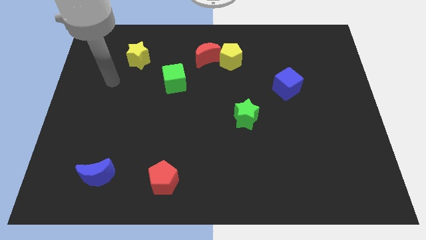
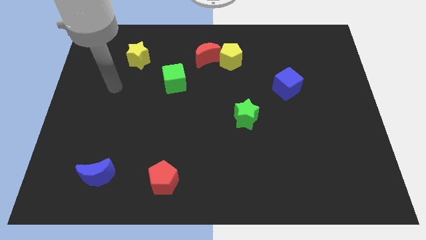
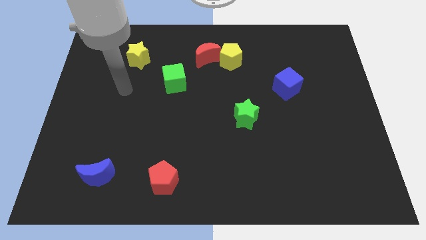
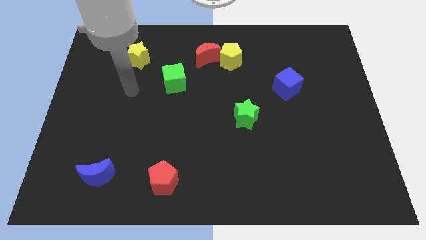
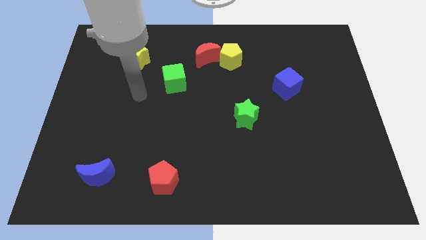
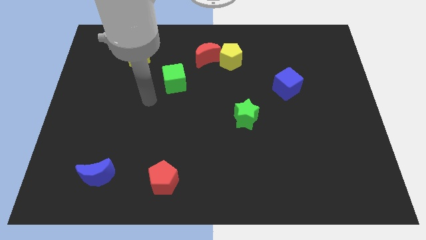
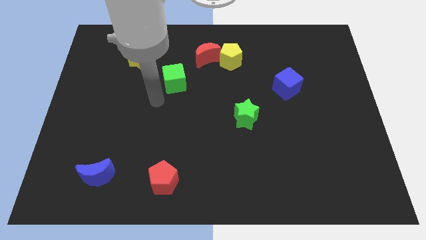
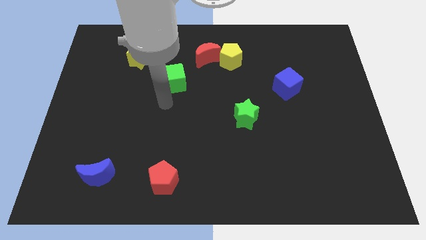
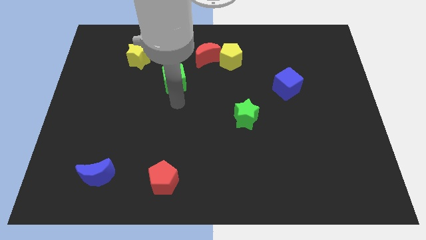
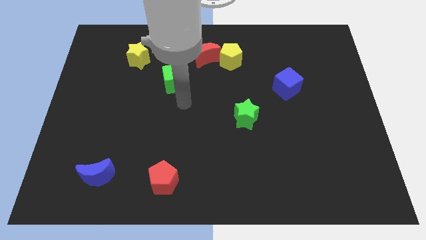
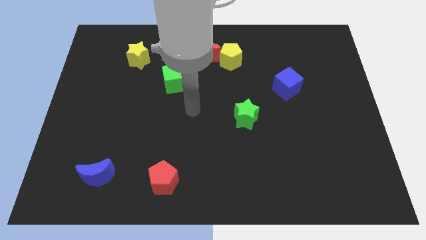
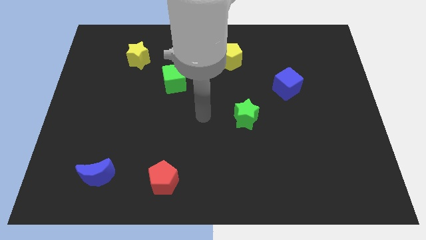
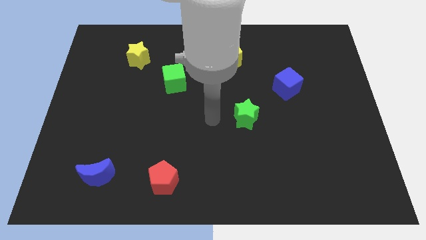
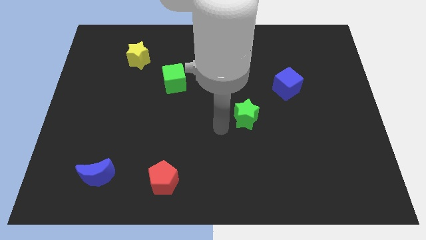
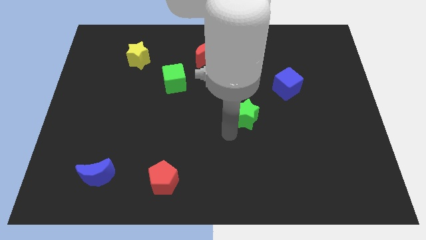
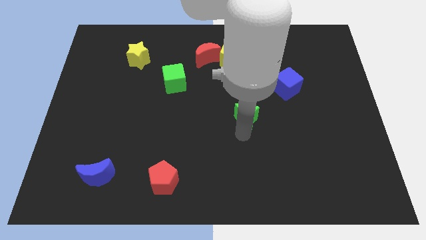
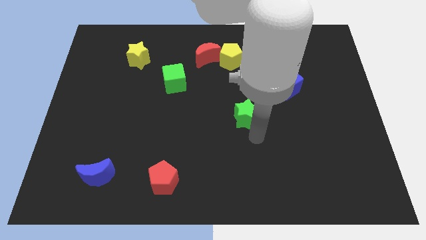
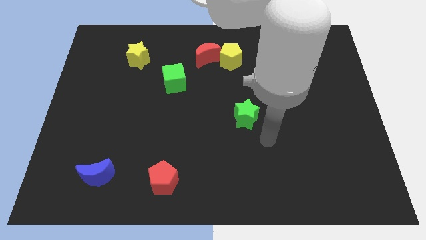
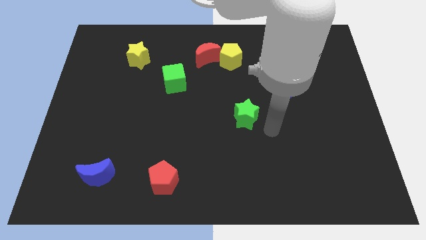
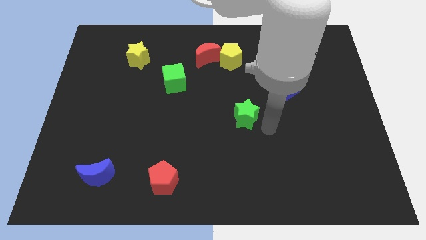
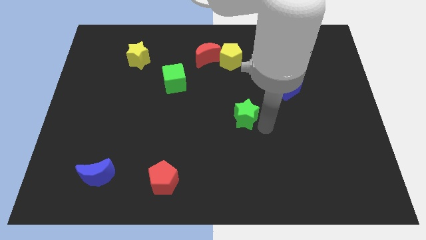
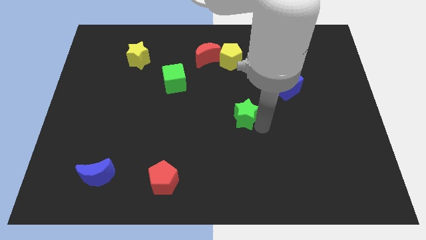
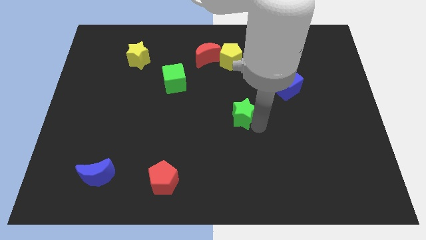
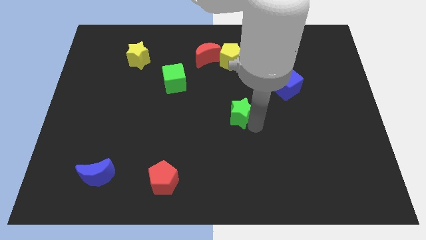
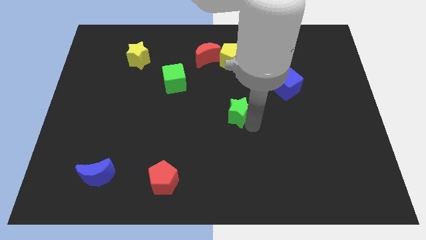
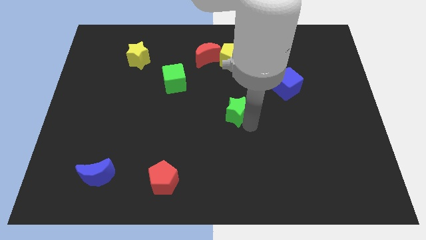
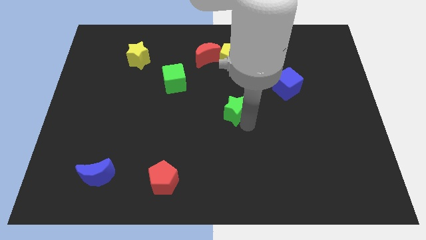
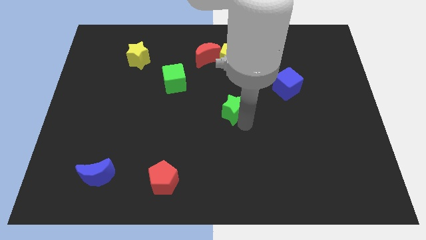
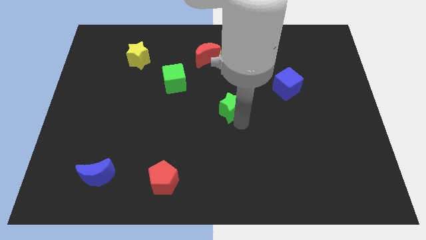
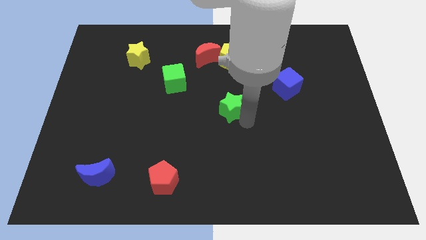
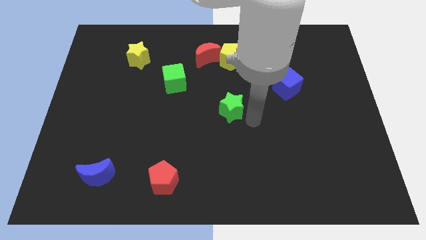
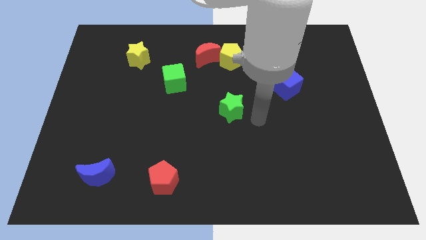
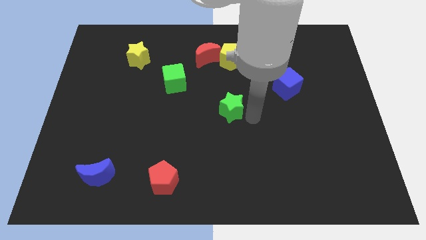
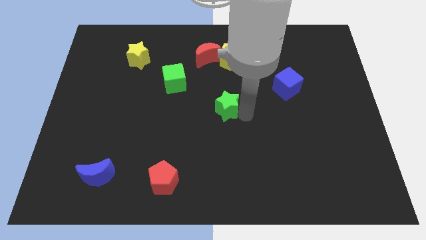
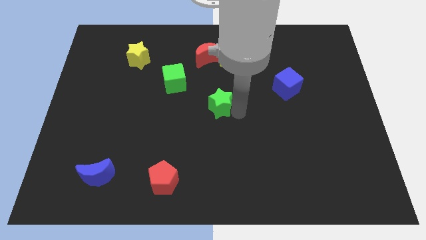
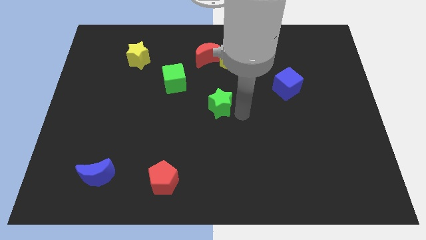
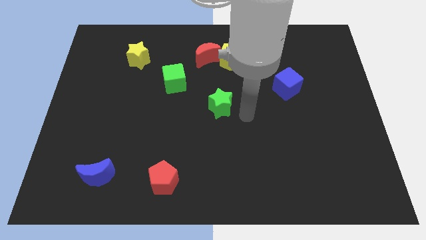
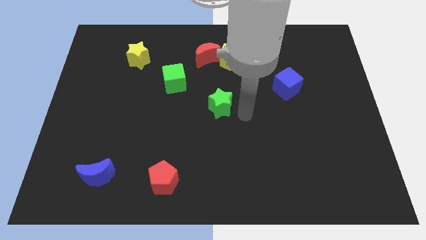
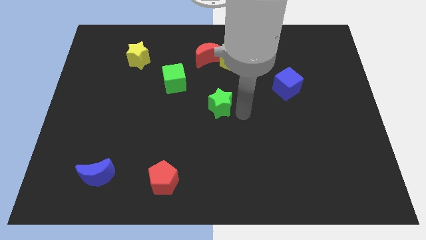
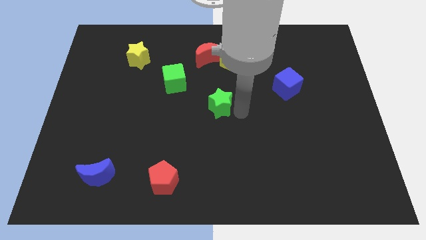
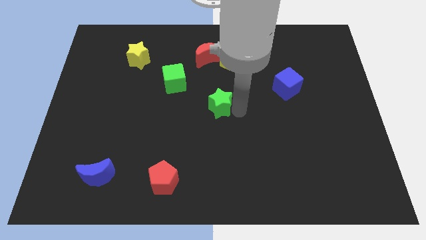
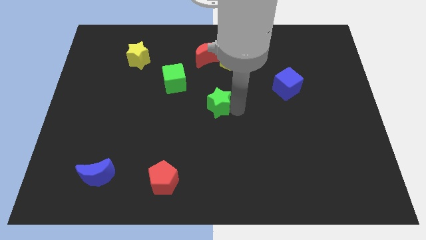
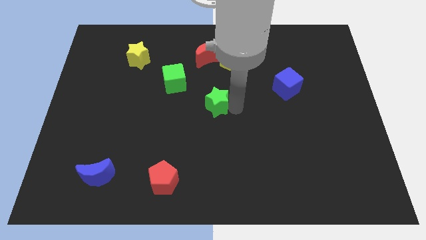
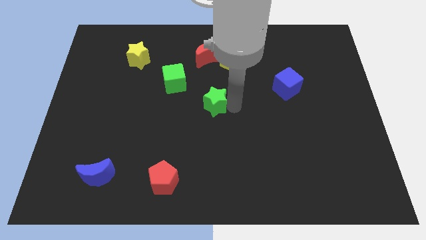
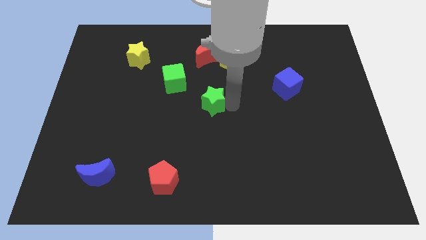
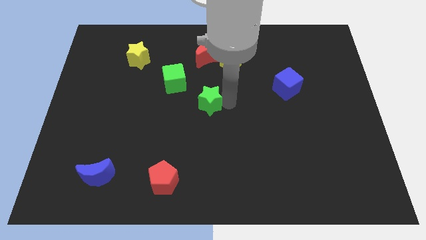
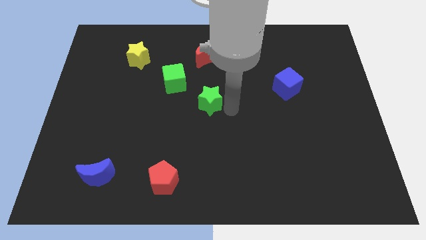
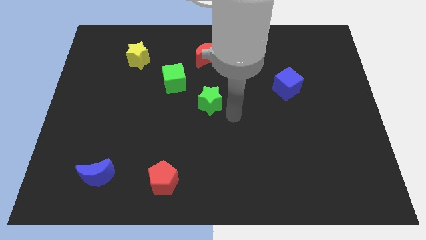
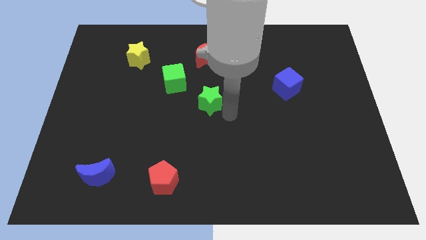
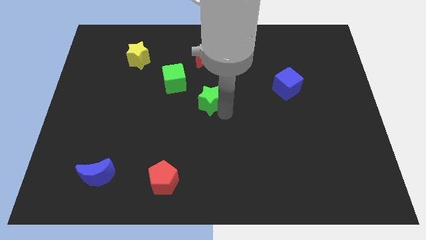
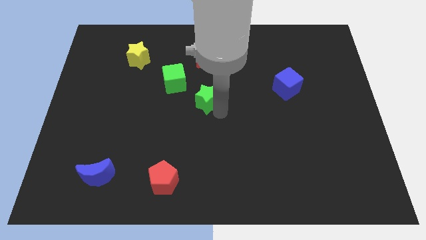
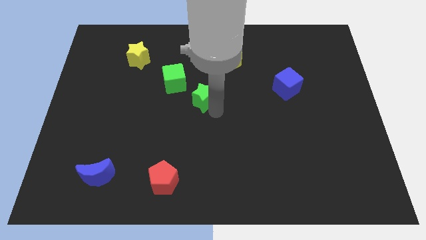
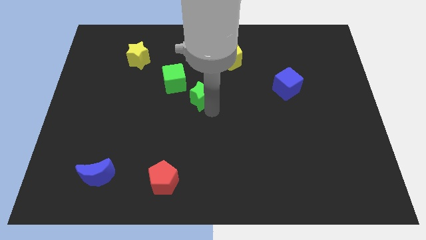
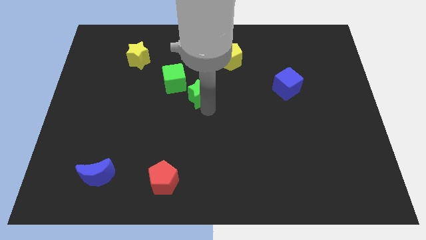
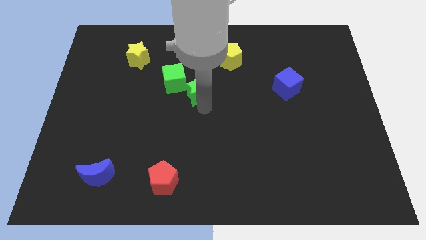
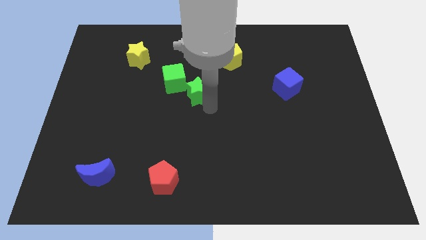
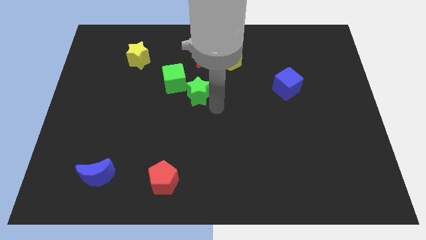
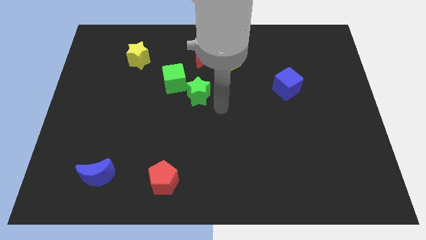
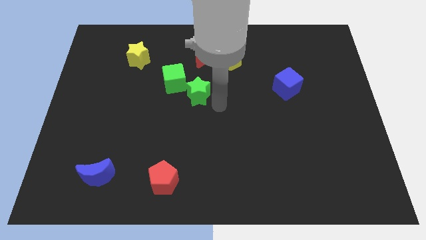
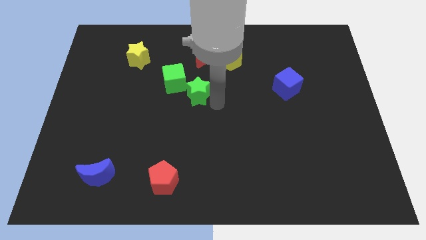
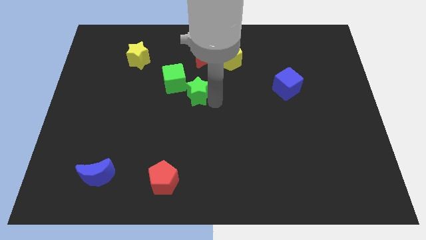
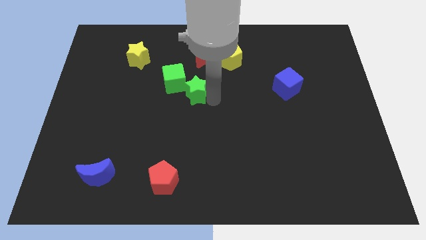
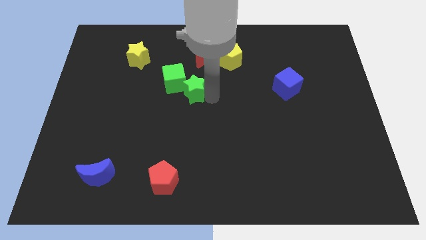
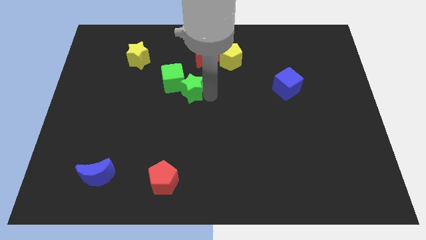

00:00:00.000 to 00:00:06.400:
move the green star close to the green cube

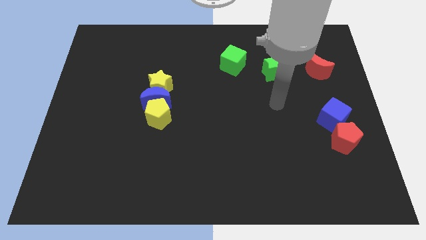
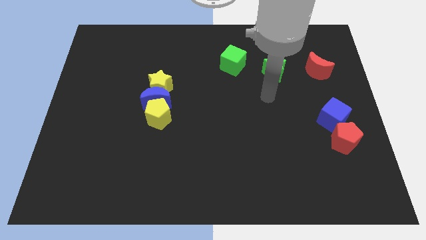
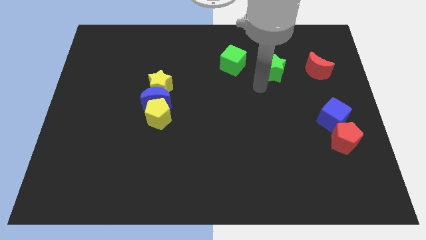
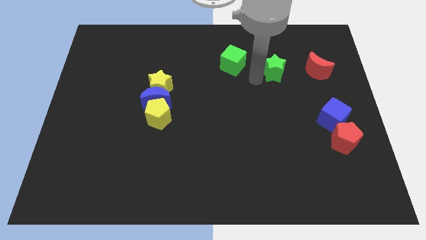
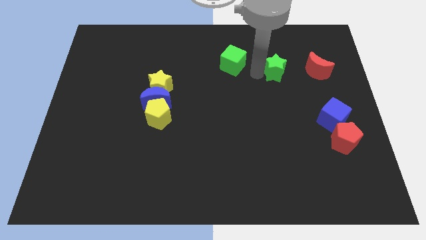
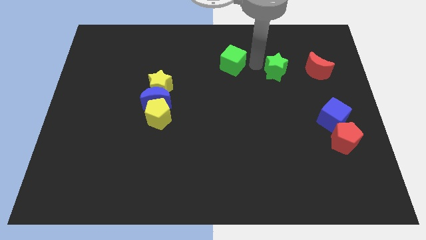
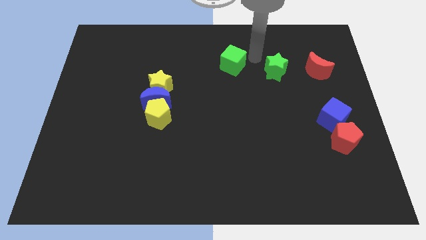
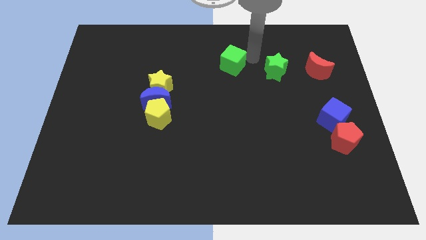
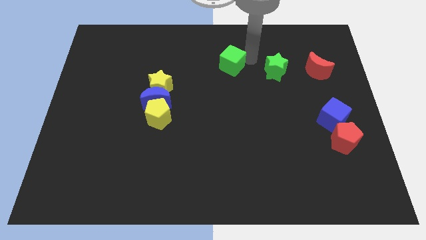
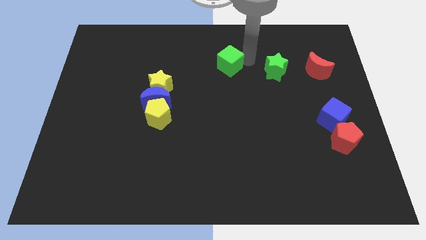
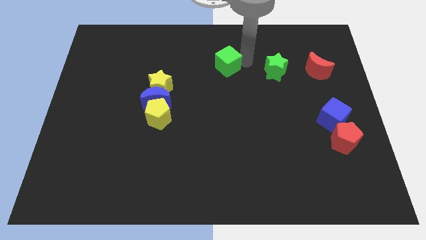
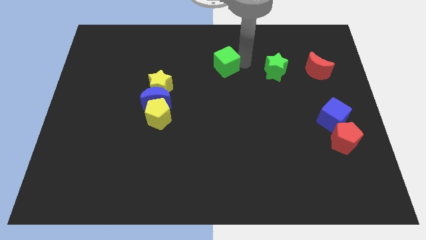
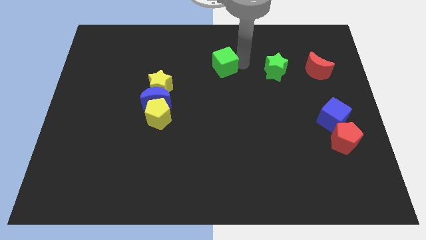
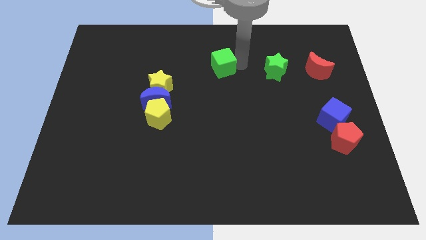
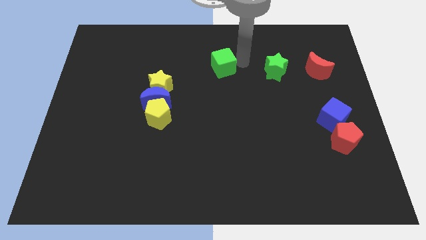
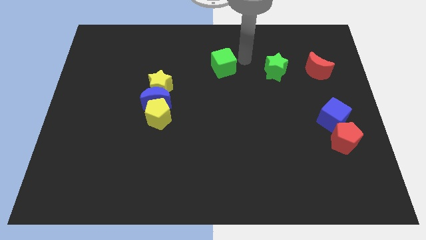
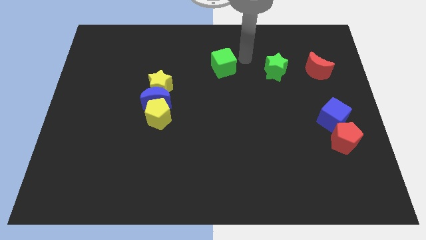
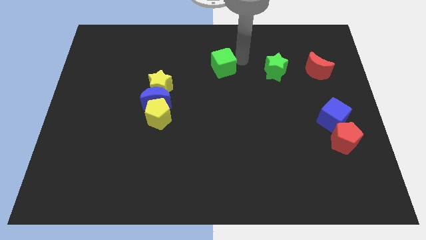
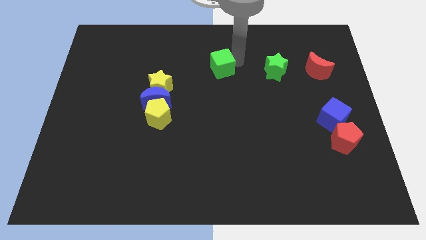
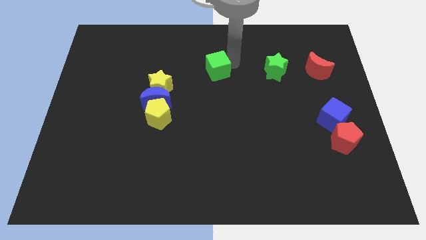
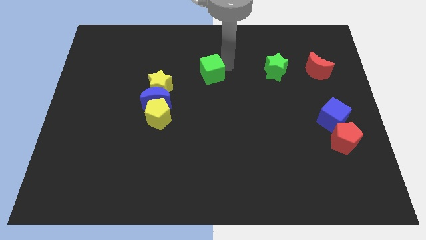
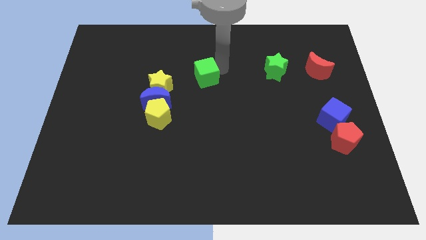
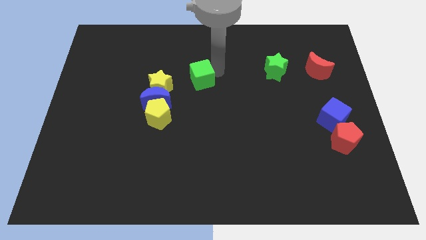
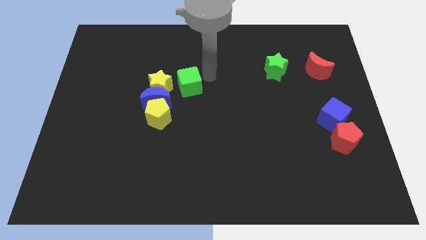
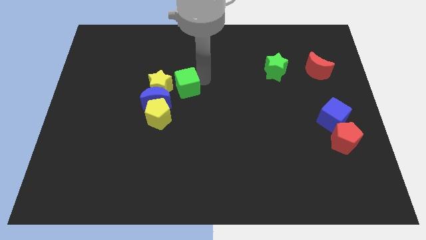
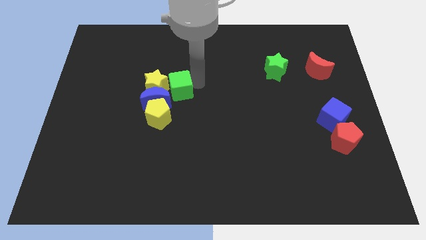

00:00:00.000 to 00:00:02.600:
push the green cube next to the yellow star
